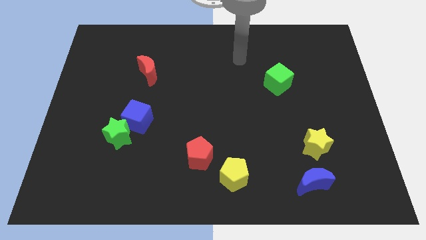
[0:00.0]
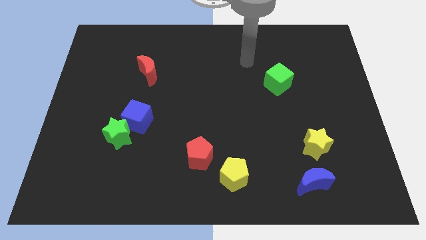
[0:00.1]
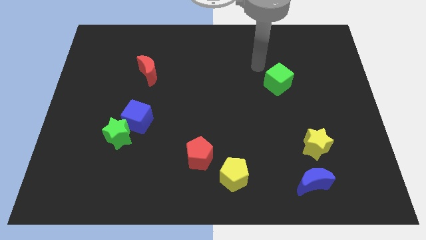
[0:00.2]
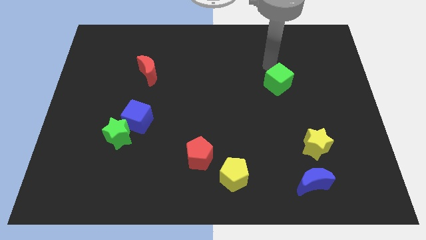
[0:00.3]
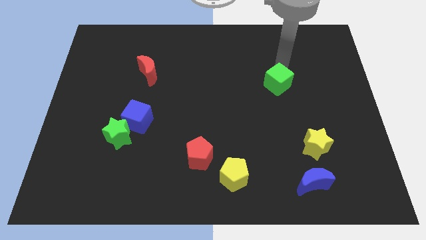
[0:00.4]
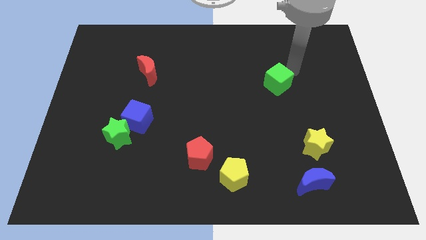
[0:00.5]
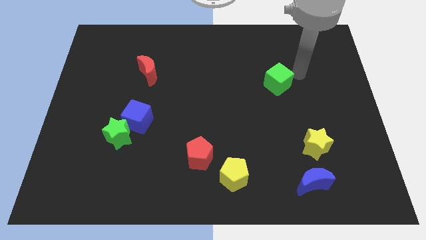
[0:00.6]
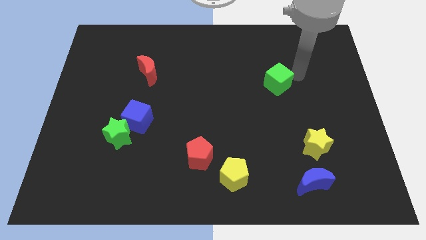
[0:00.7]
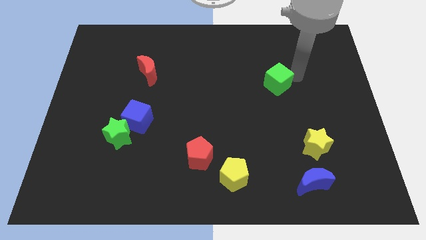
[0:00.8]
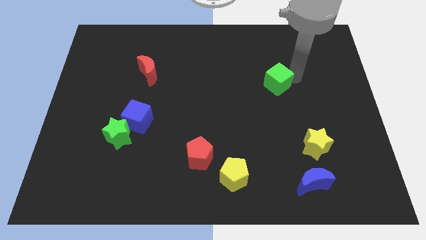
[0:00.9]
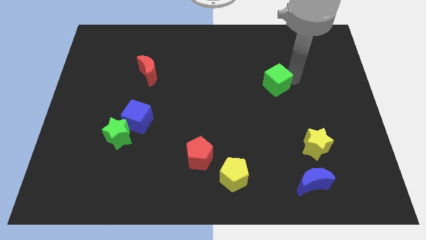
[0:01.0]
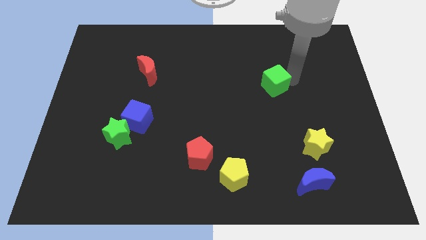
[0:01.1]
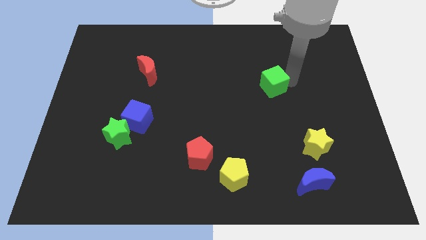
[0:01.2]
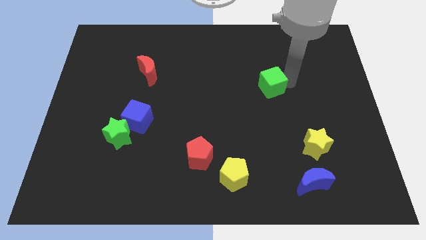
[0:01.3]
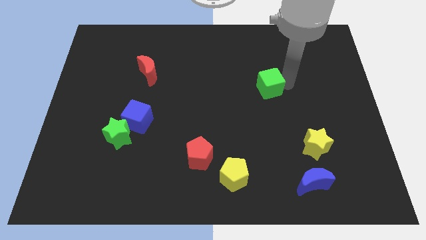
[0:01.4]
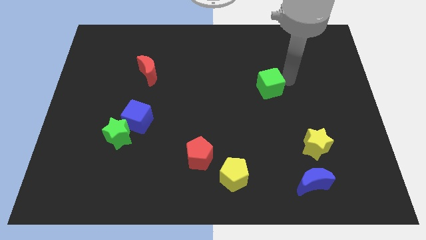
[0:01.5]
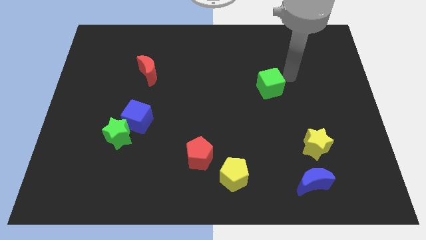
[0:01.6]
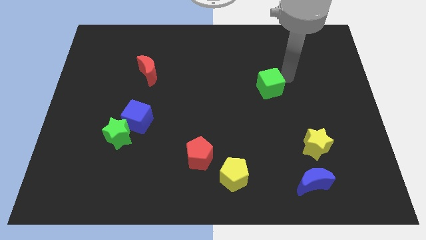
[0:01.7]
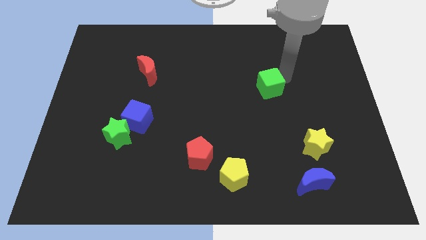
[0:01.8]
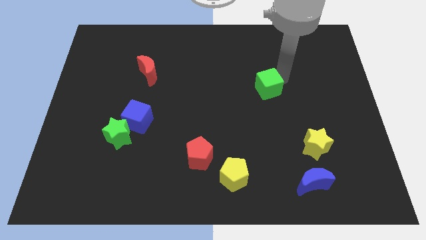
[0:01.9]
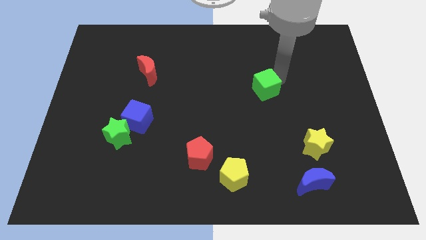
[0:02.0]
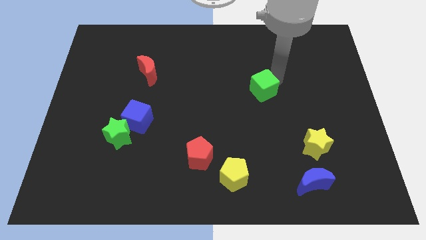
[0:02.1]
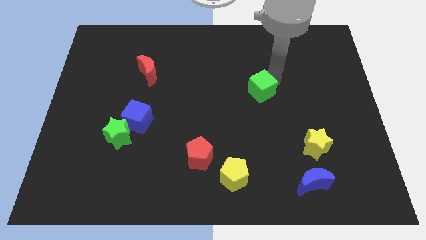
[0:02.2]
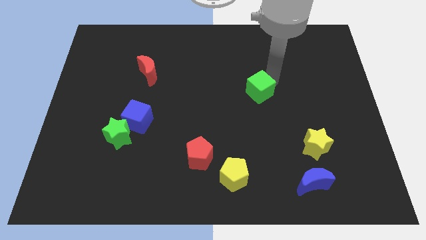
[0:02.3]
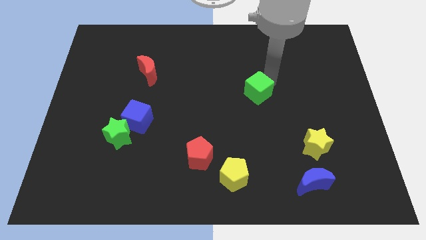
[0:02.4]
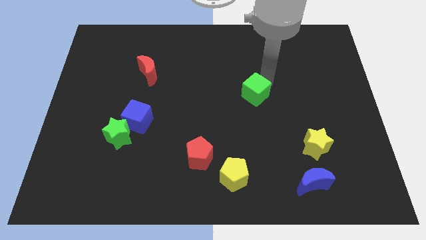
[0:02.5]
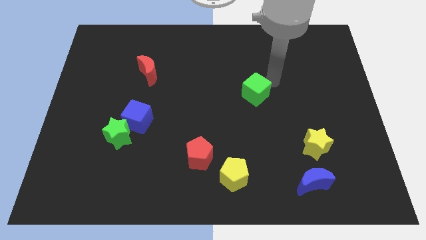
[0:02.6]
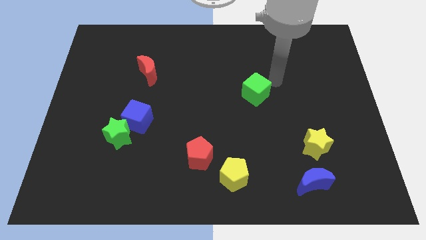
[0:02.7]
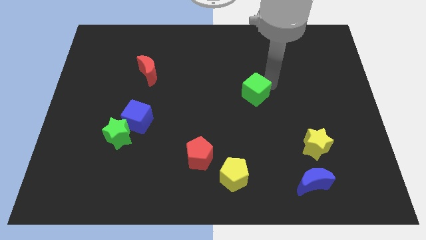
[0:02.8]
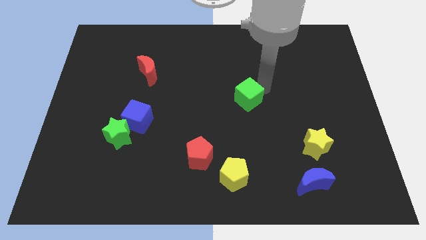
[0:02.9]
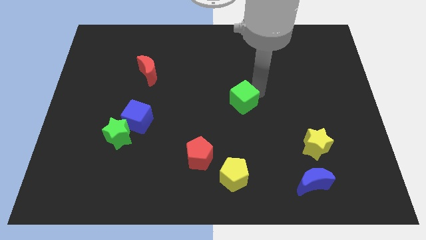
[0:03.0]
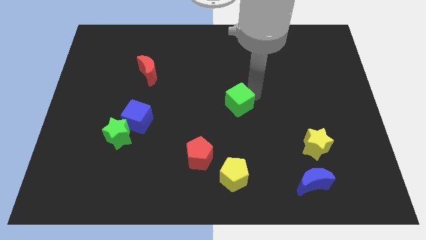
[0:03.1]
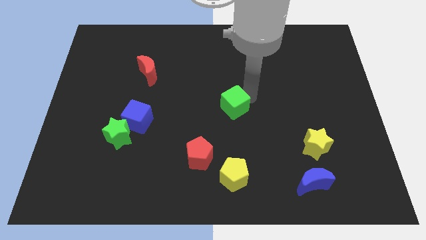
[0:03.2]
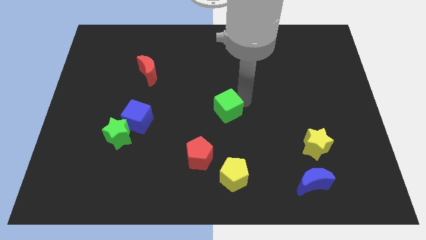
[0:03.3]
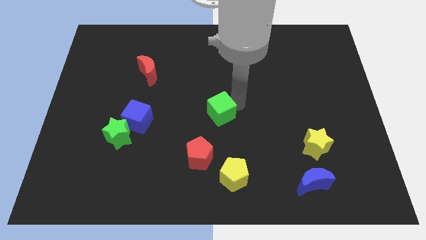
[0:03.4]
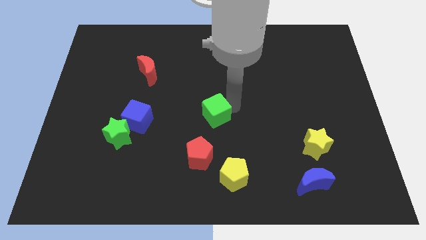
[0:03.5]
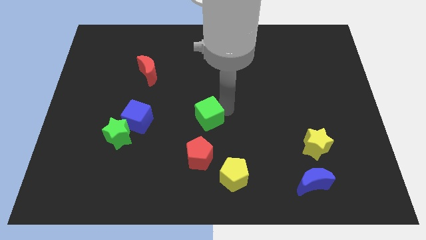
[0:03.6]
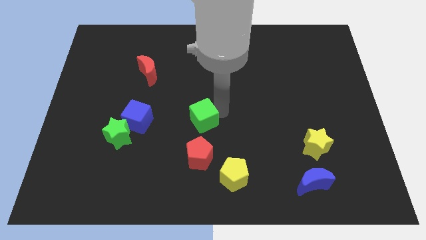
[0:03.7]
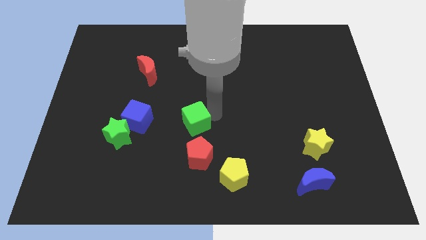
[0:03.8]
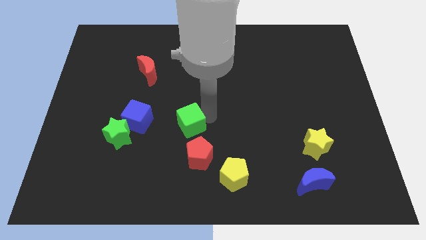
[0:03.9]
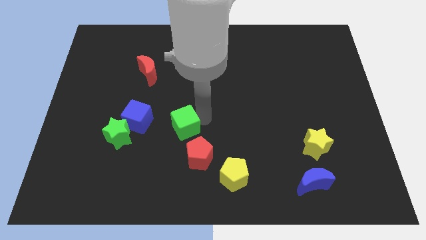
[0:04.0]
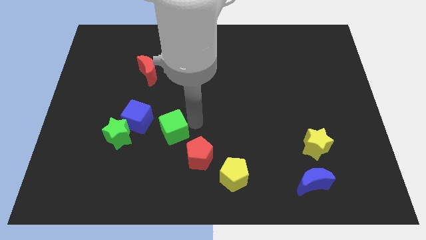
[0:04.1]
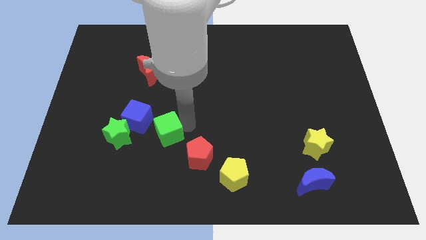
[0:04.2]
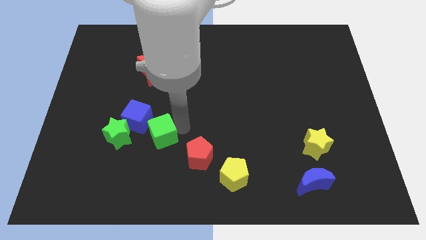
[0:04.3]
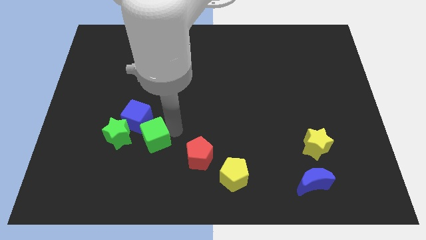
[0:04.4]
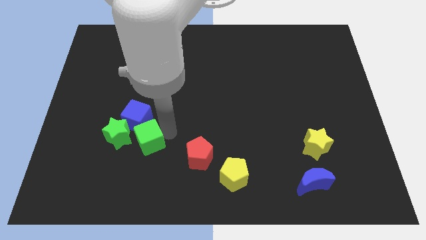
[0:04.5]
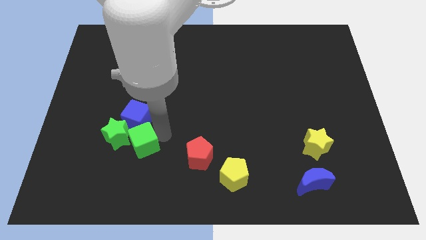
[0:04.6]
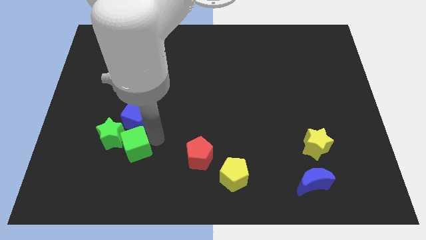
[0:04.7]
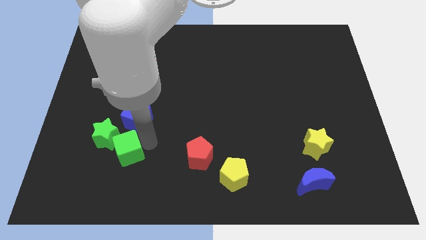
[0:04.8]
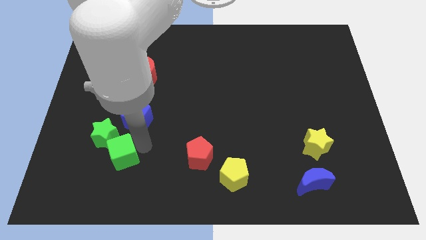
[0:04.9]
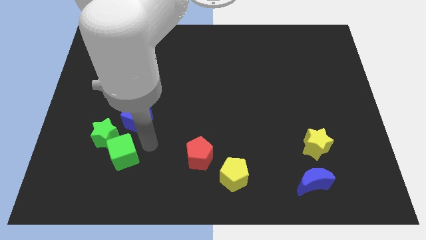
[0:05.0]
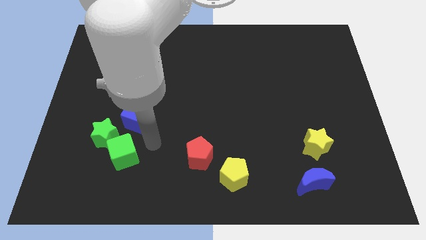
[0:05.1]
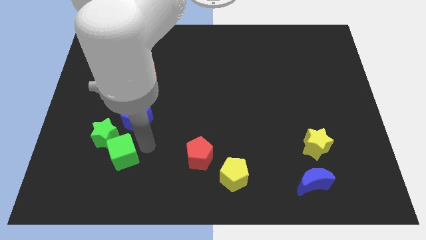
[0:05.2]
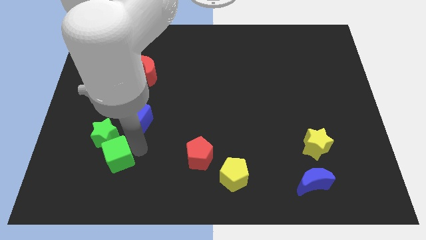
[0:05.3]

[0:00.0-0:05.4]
move the green cube to the bottom left of the blue cube

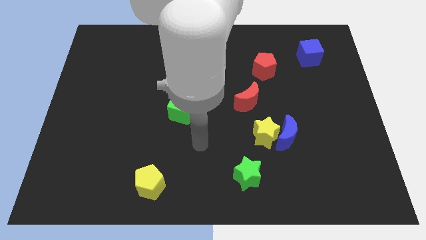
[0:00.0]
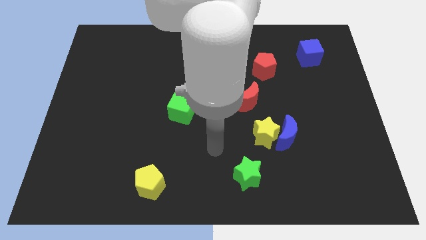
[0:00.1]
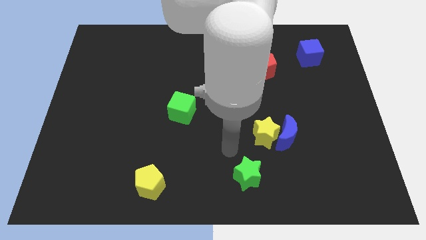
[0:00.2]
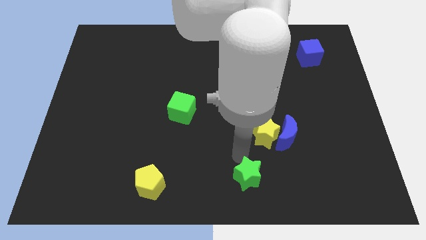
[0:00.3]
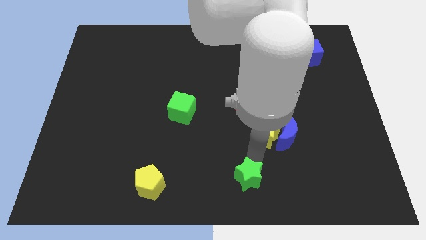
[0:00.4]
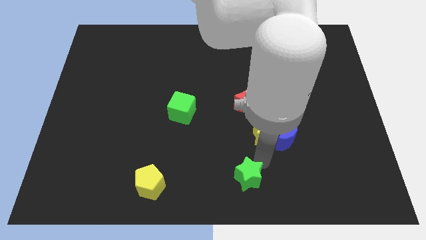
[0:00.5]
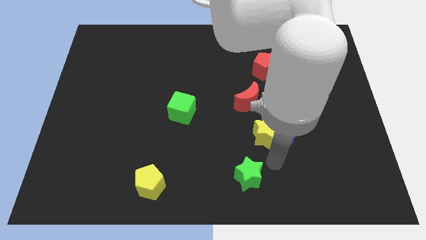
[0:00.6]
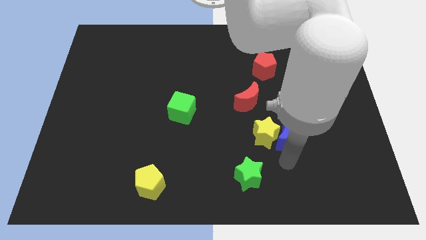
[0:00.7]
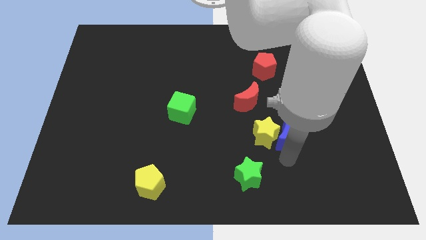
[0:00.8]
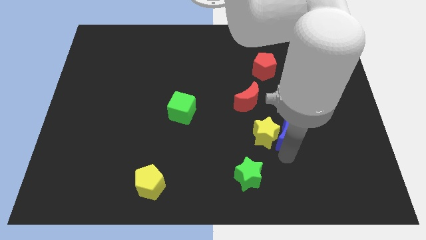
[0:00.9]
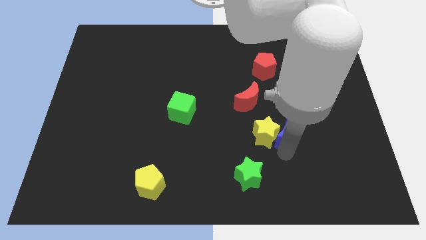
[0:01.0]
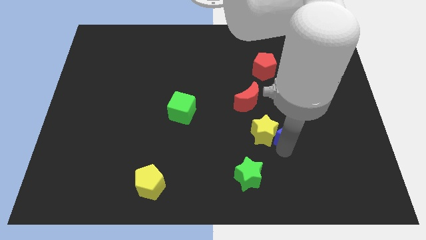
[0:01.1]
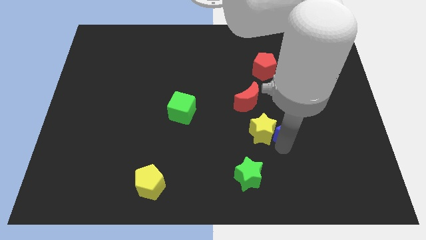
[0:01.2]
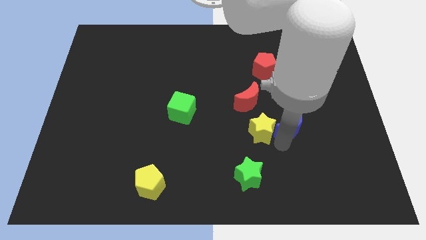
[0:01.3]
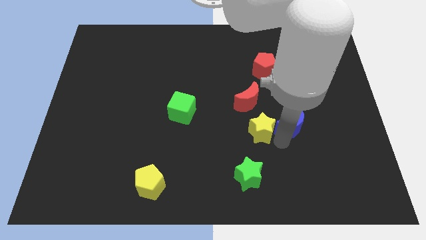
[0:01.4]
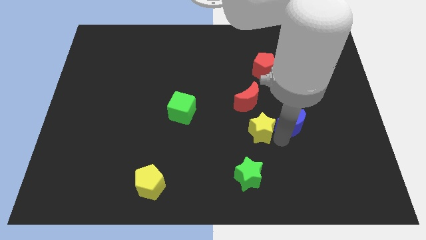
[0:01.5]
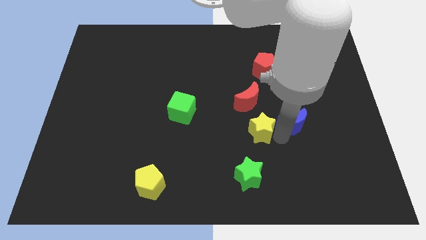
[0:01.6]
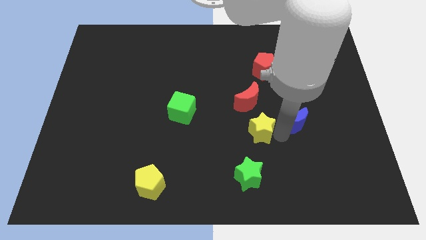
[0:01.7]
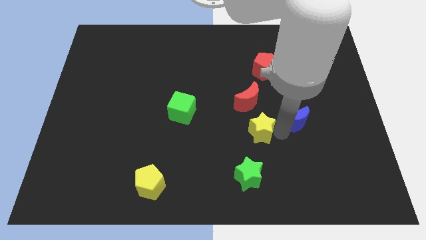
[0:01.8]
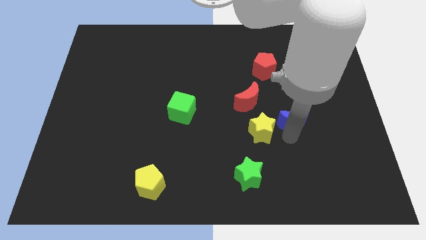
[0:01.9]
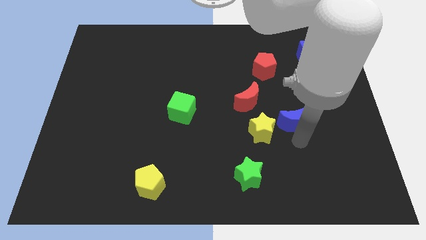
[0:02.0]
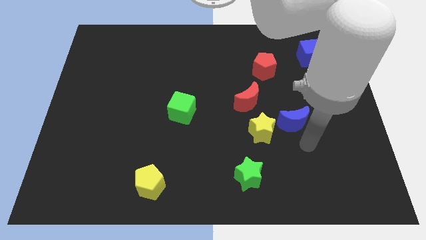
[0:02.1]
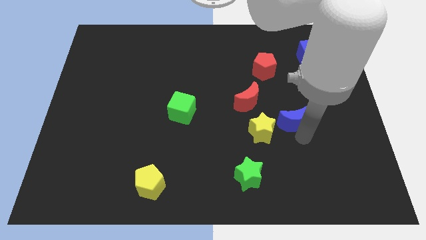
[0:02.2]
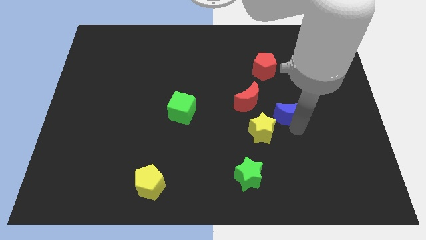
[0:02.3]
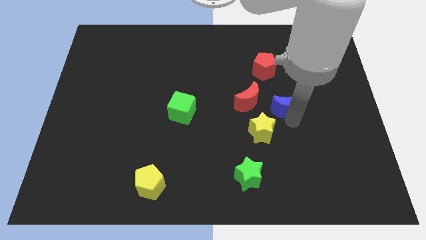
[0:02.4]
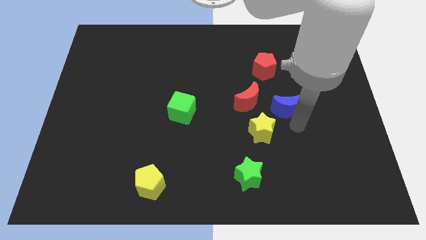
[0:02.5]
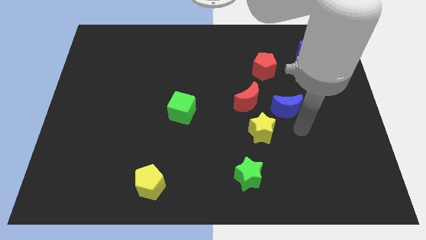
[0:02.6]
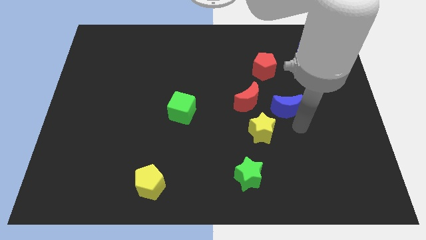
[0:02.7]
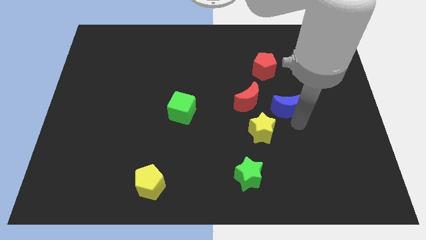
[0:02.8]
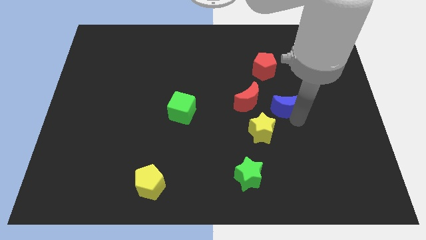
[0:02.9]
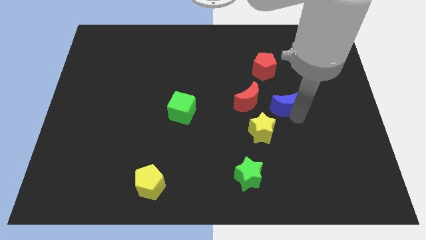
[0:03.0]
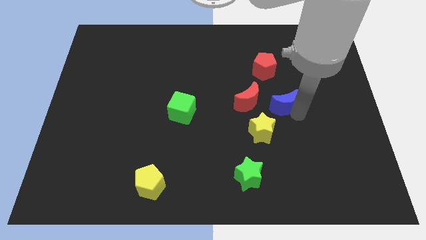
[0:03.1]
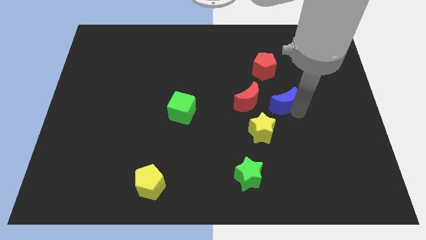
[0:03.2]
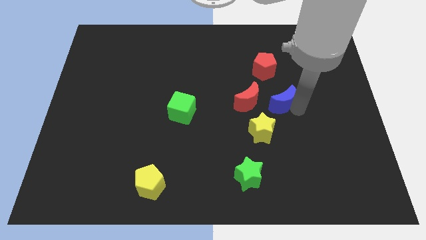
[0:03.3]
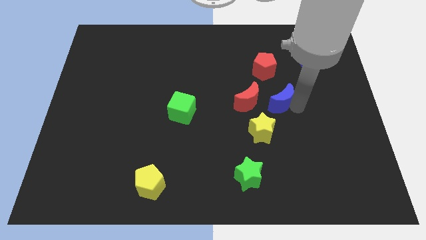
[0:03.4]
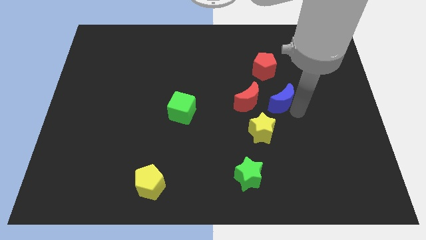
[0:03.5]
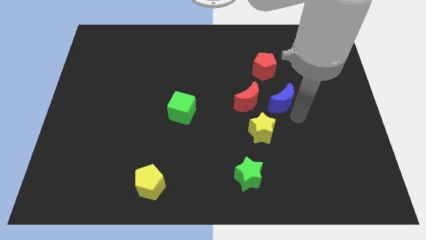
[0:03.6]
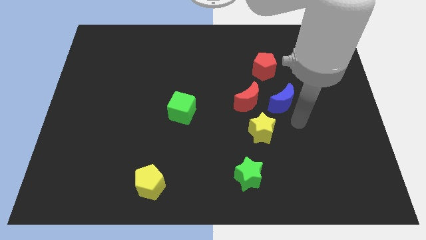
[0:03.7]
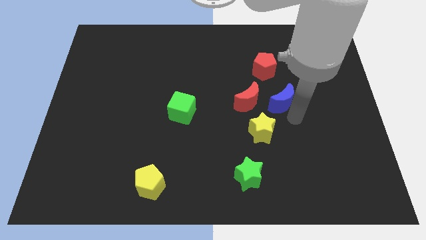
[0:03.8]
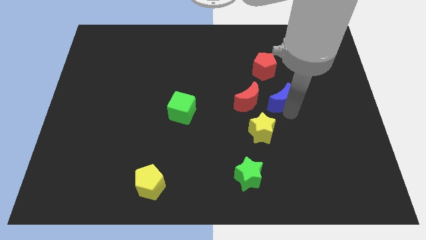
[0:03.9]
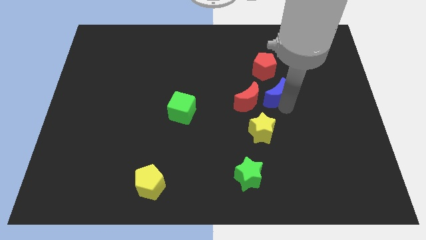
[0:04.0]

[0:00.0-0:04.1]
slide the blue moon to the top right of the red moon
